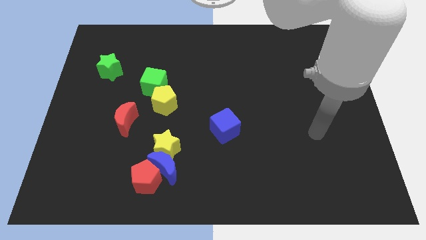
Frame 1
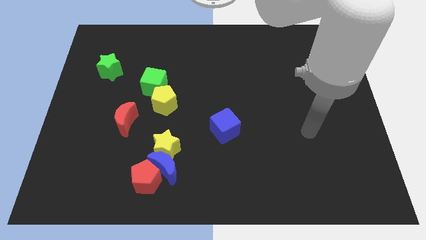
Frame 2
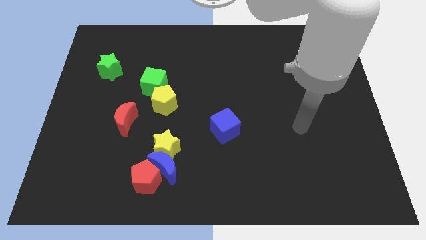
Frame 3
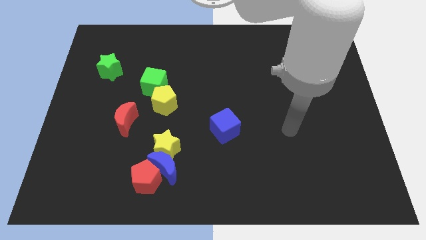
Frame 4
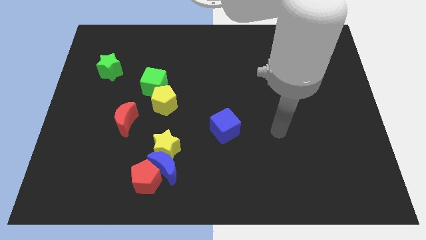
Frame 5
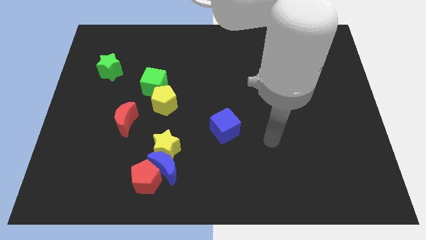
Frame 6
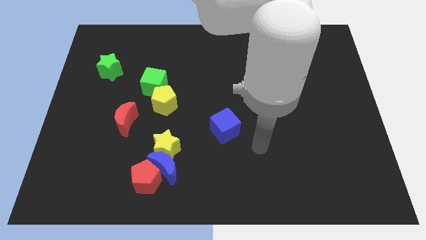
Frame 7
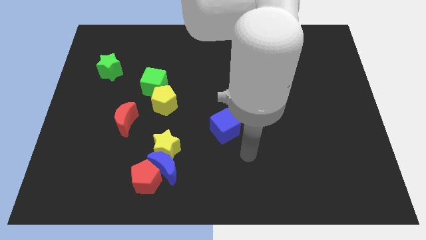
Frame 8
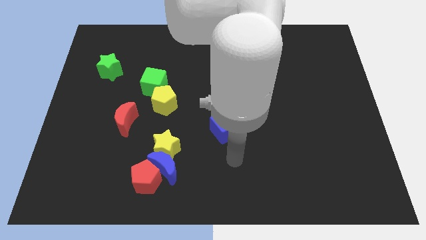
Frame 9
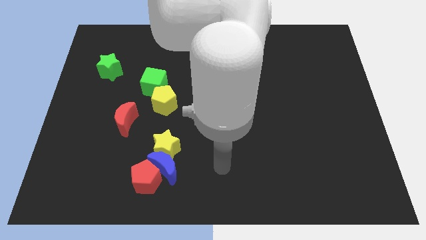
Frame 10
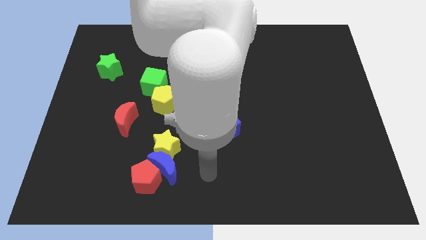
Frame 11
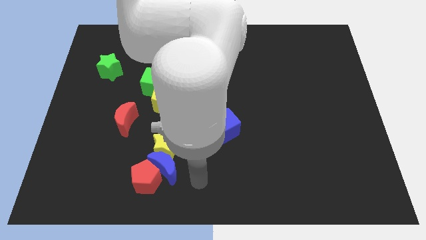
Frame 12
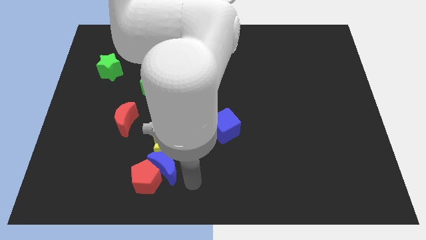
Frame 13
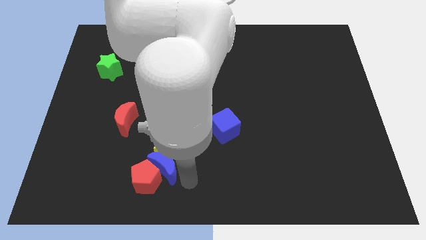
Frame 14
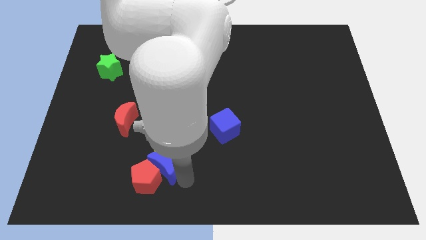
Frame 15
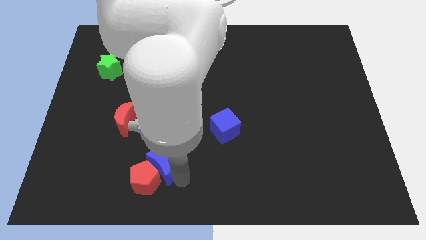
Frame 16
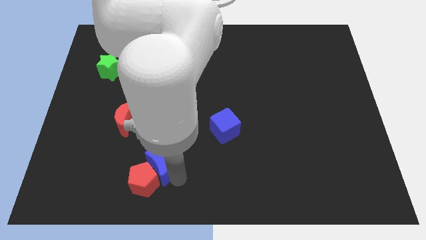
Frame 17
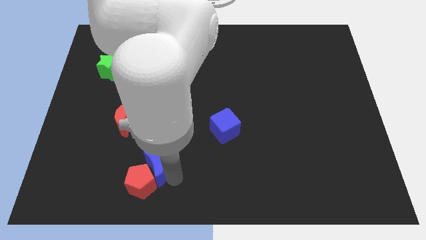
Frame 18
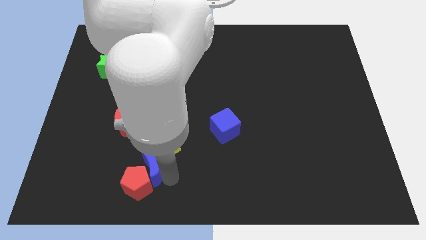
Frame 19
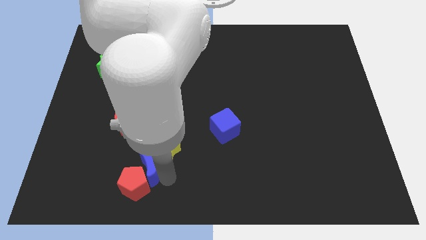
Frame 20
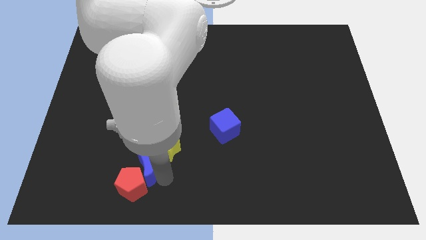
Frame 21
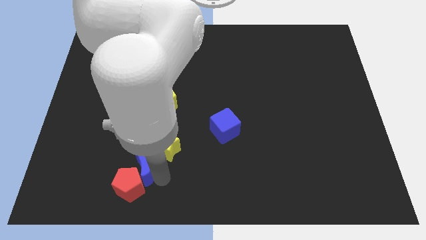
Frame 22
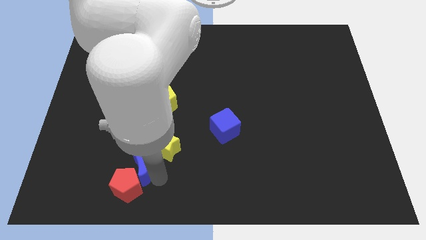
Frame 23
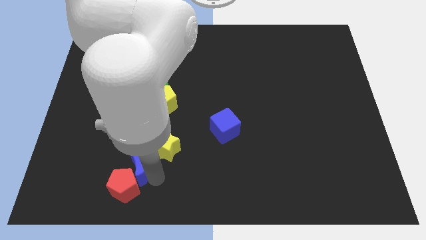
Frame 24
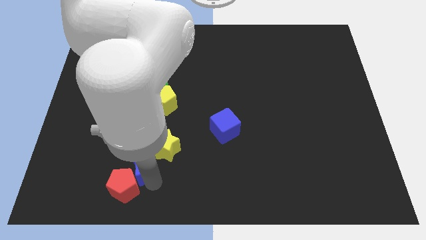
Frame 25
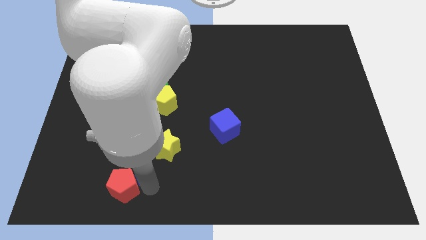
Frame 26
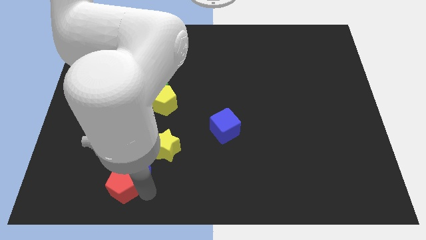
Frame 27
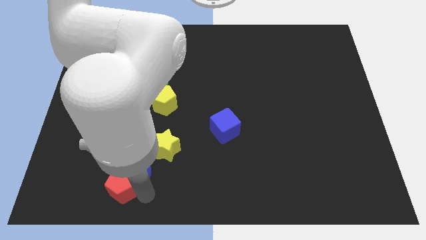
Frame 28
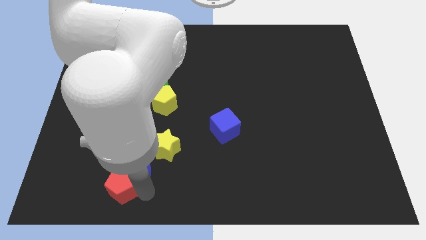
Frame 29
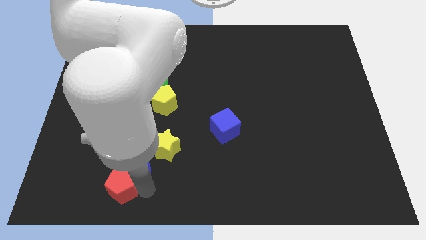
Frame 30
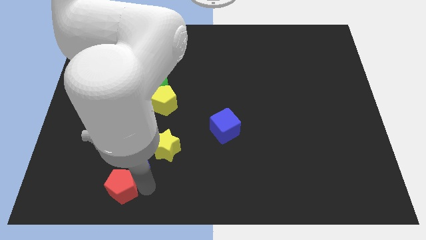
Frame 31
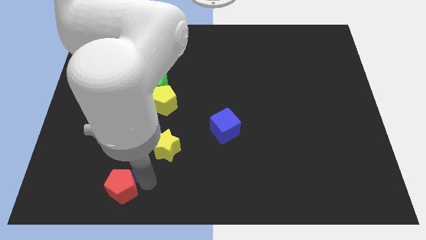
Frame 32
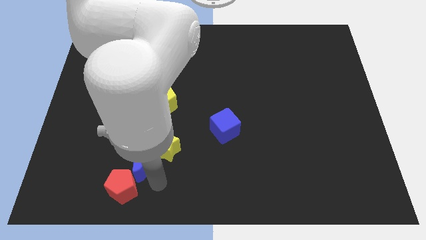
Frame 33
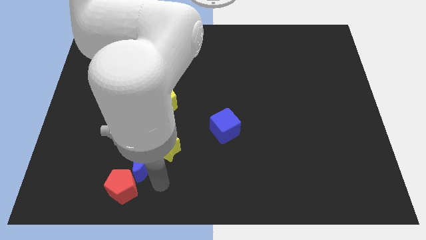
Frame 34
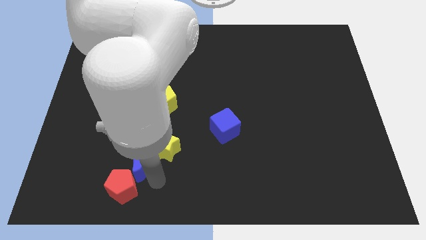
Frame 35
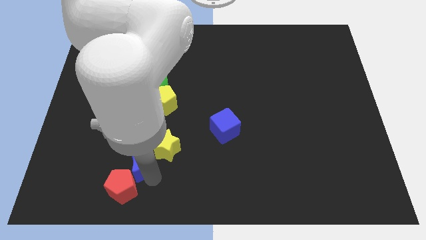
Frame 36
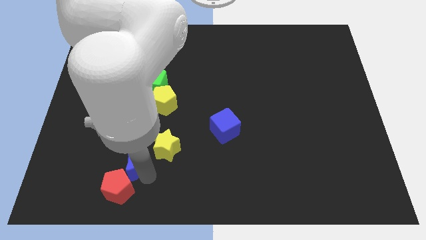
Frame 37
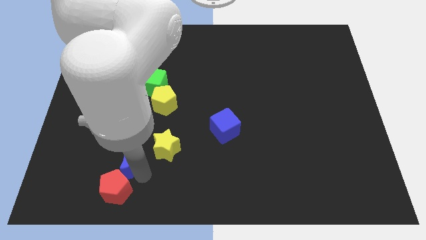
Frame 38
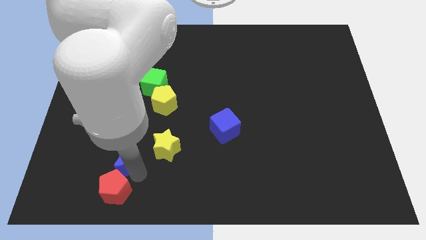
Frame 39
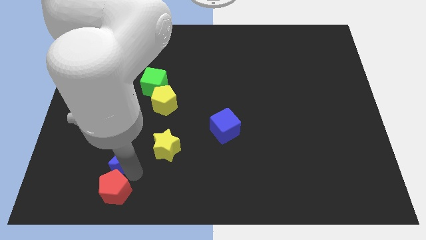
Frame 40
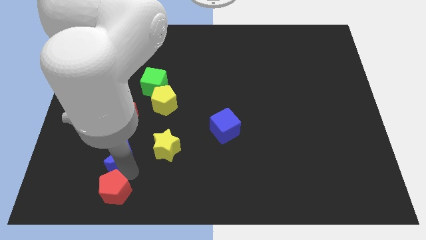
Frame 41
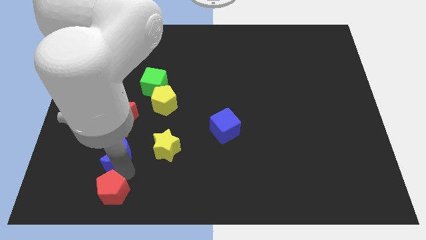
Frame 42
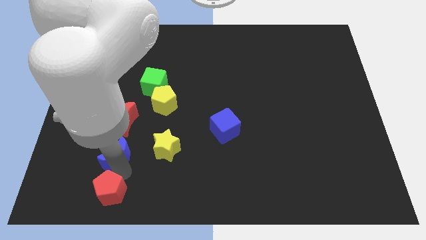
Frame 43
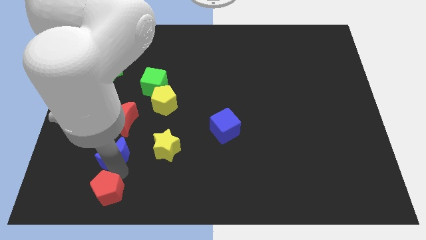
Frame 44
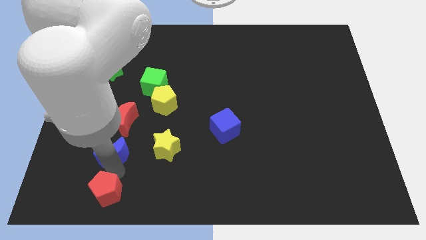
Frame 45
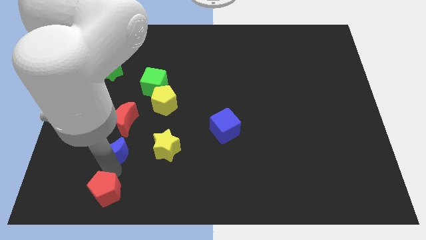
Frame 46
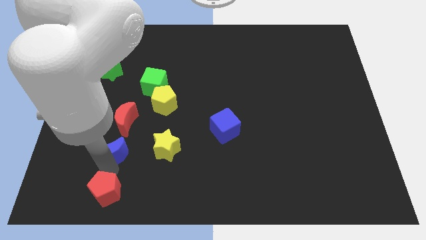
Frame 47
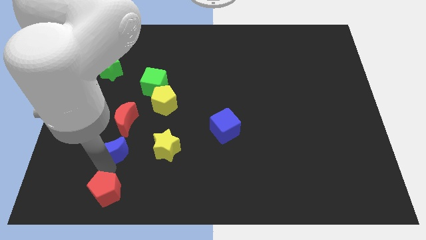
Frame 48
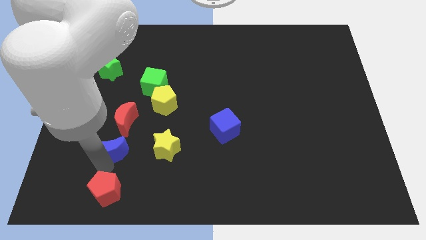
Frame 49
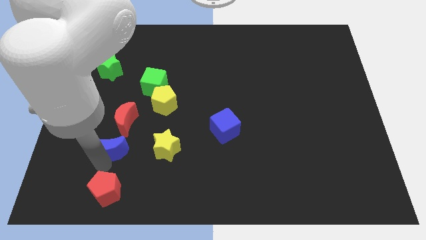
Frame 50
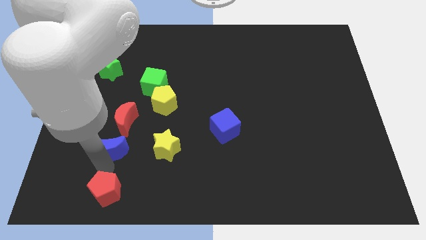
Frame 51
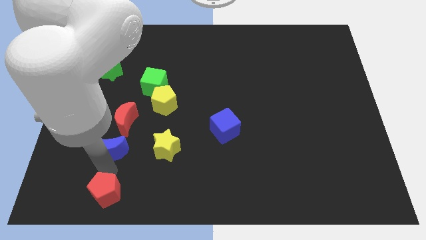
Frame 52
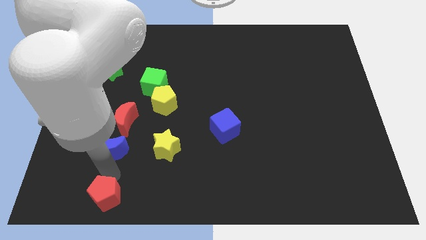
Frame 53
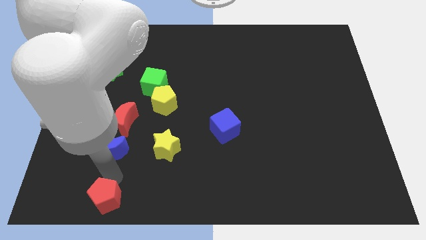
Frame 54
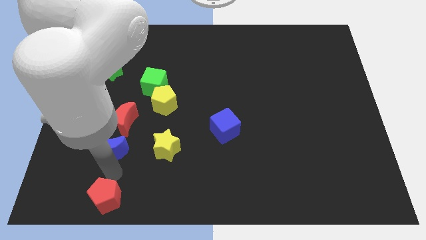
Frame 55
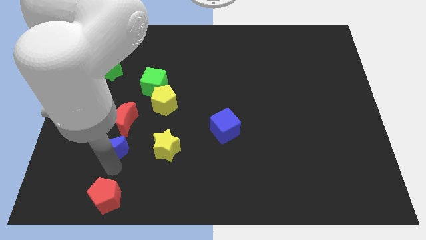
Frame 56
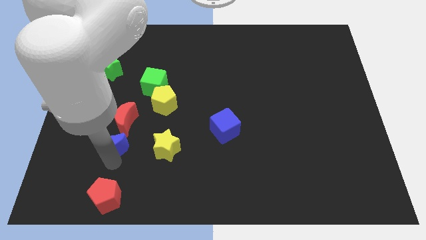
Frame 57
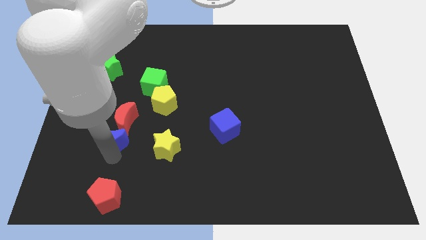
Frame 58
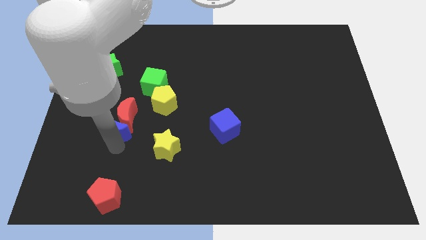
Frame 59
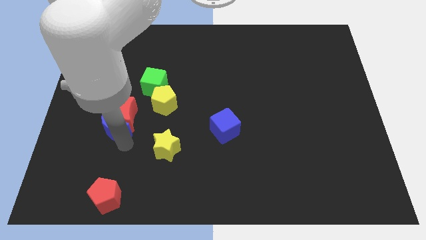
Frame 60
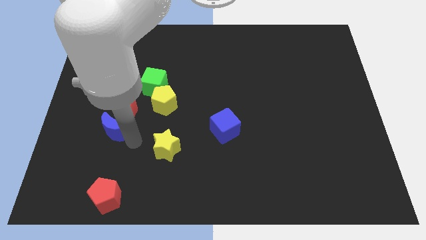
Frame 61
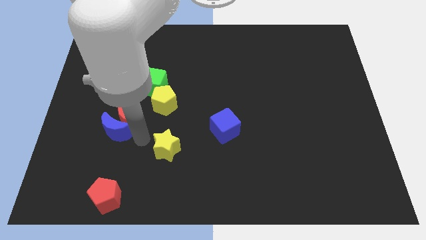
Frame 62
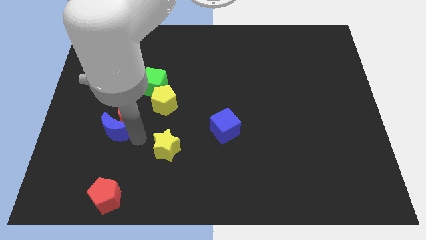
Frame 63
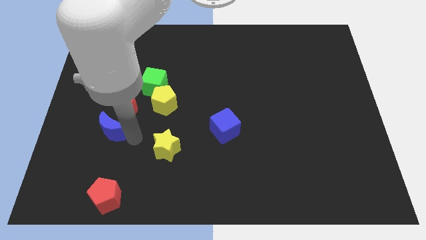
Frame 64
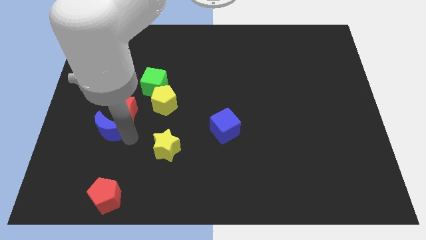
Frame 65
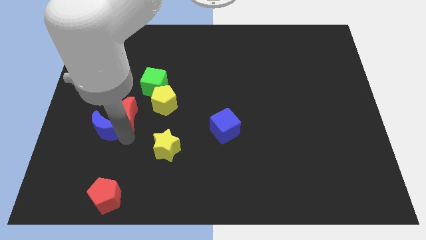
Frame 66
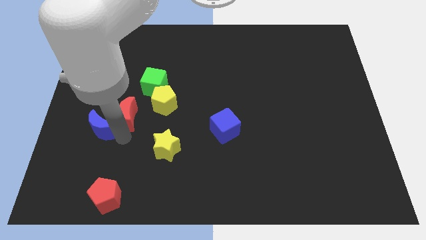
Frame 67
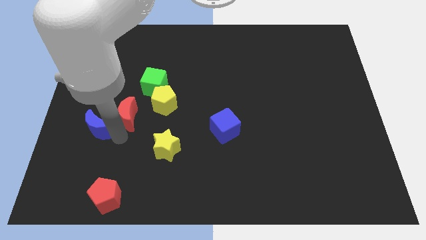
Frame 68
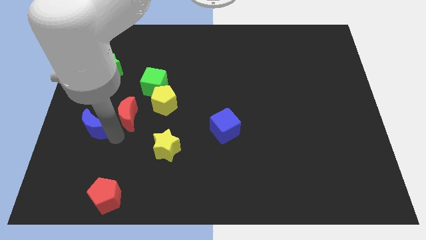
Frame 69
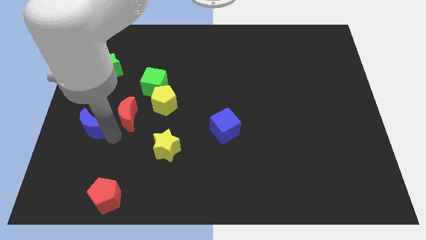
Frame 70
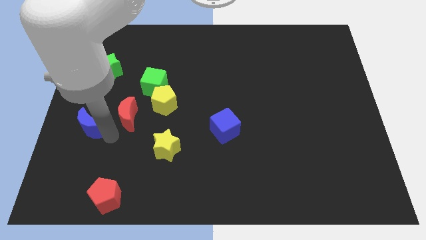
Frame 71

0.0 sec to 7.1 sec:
push the blue moon to the left side of the board
